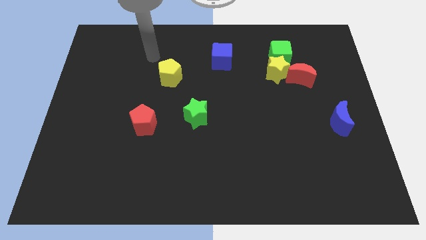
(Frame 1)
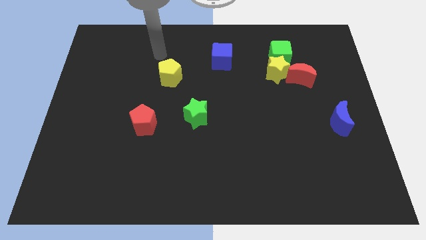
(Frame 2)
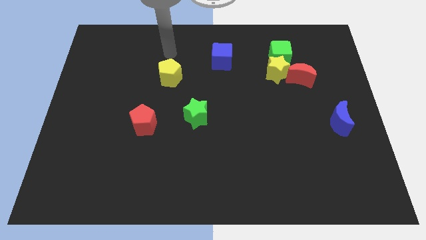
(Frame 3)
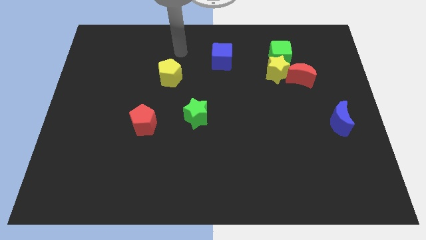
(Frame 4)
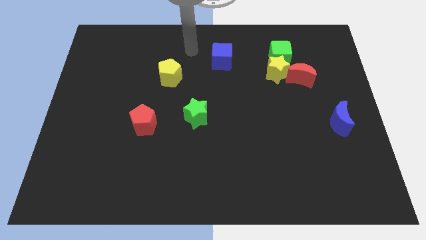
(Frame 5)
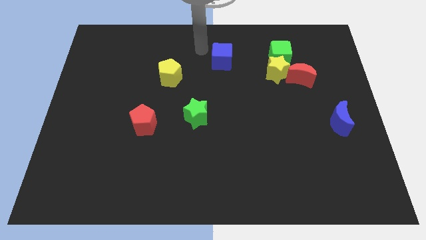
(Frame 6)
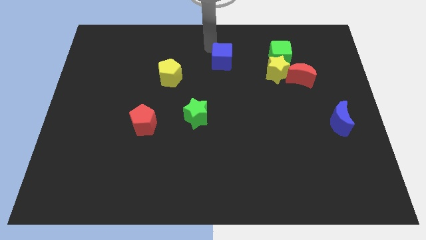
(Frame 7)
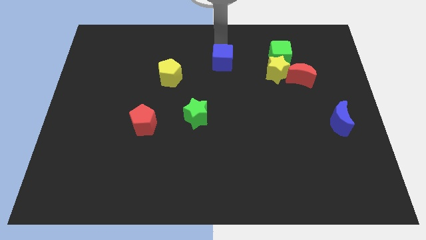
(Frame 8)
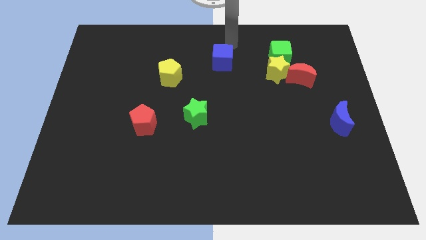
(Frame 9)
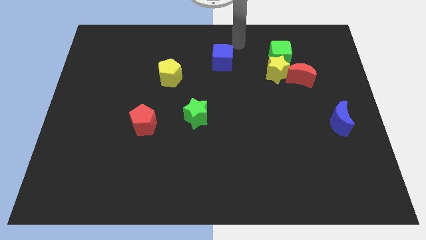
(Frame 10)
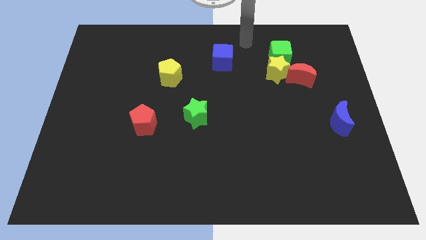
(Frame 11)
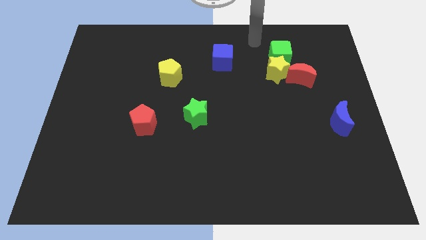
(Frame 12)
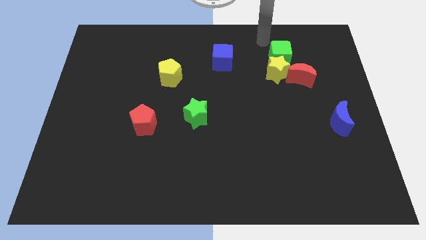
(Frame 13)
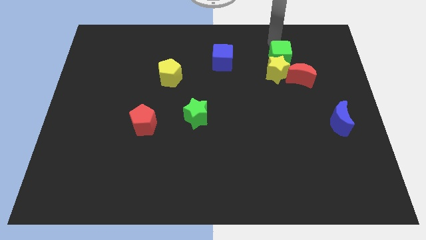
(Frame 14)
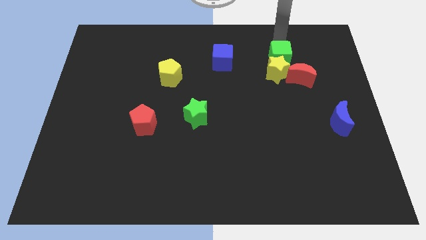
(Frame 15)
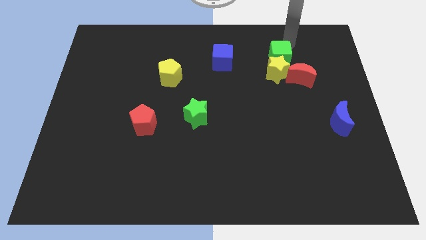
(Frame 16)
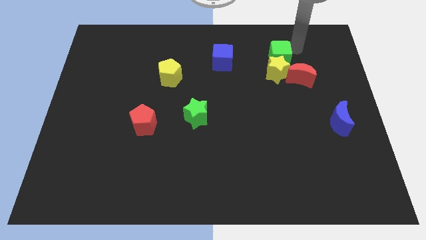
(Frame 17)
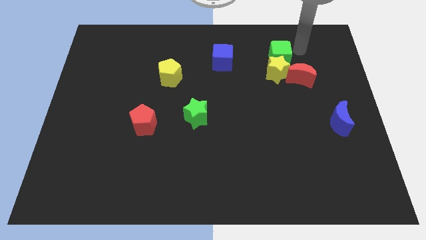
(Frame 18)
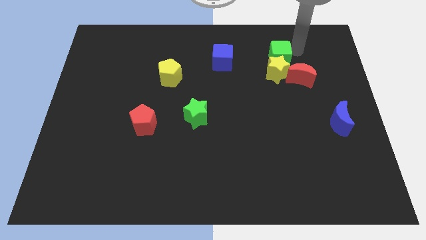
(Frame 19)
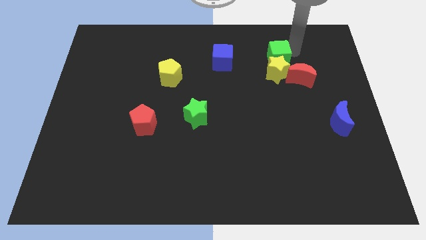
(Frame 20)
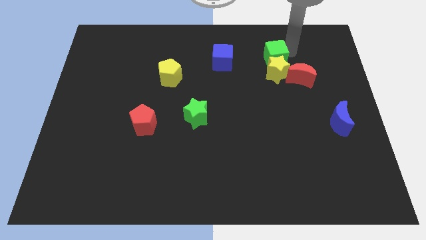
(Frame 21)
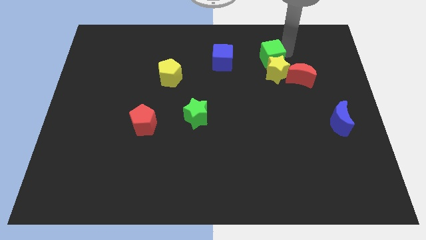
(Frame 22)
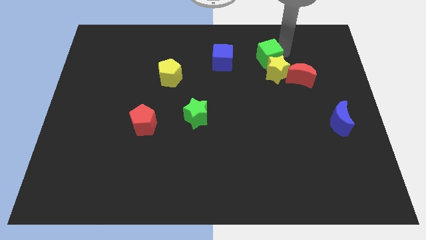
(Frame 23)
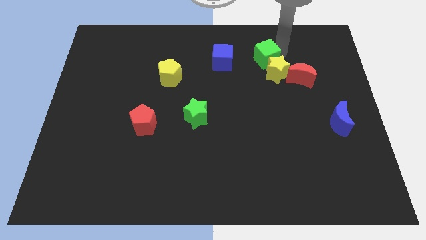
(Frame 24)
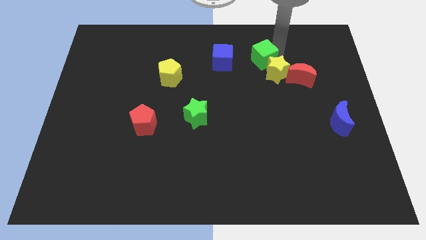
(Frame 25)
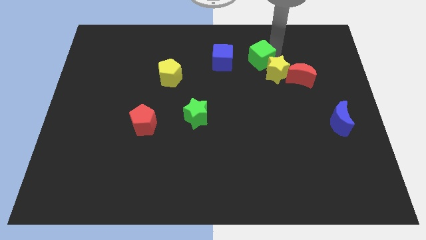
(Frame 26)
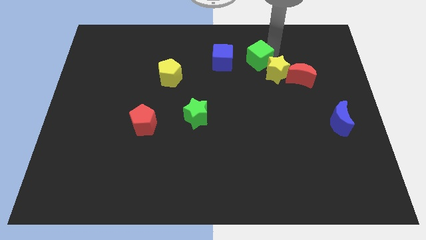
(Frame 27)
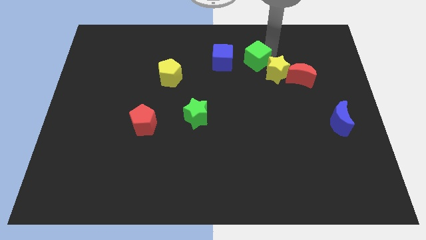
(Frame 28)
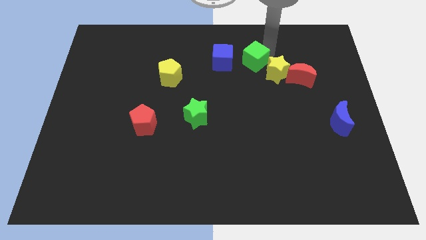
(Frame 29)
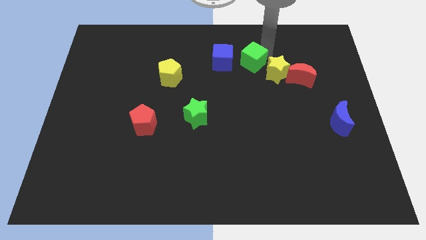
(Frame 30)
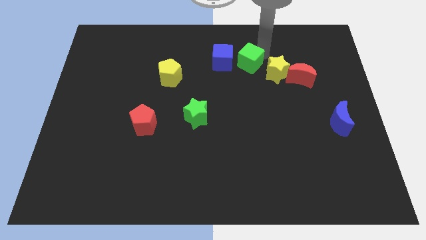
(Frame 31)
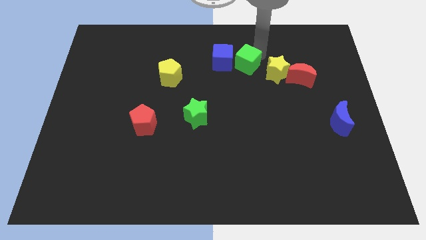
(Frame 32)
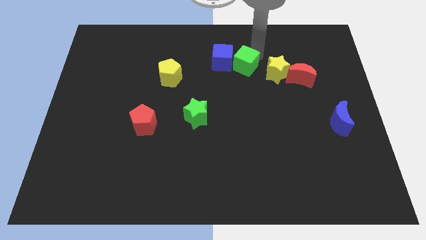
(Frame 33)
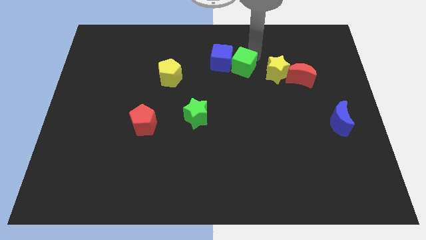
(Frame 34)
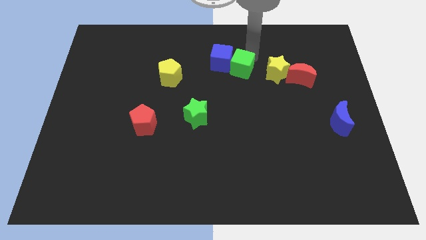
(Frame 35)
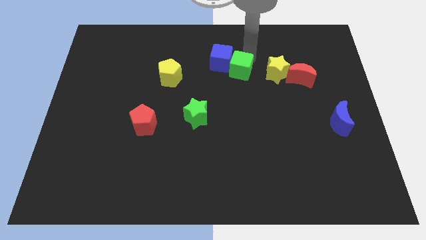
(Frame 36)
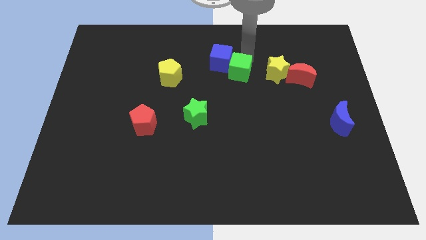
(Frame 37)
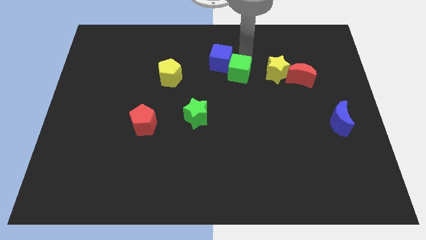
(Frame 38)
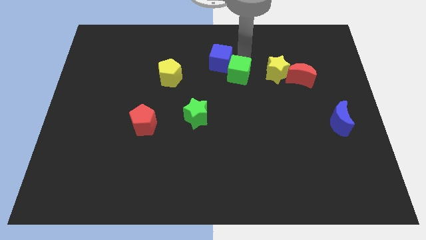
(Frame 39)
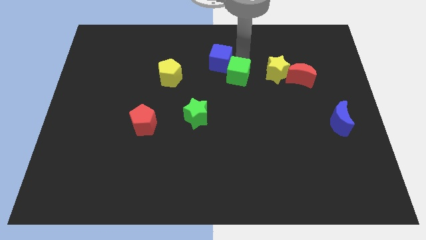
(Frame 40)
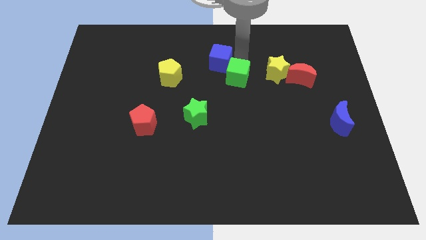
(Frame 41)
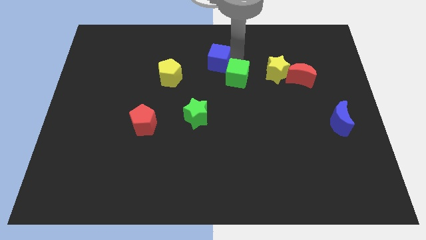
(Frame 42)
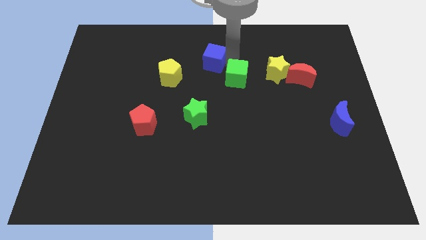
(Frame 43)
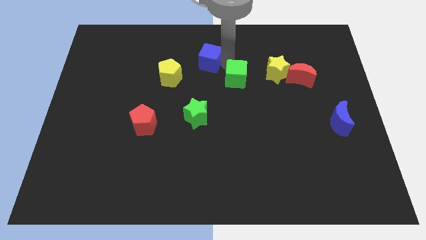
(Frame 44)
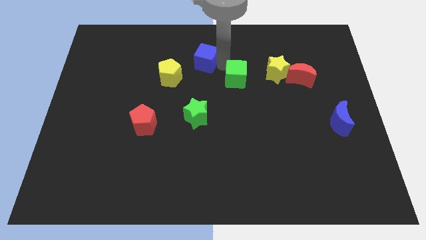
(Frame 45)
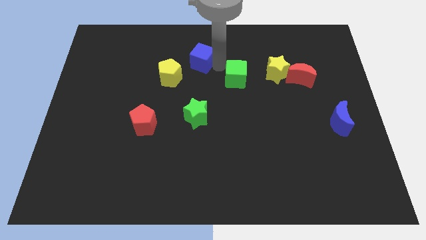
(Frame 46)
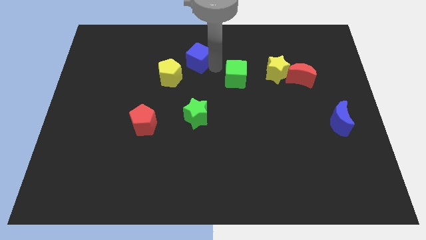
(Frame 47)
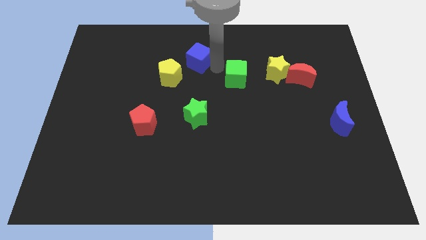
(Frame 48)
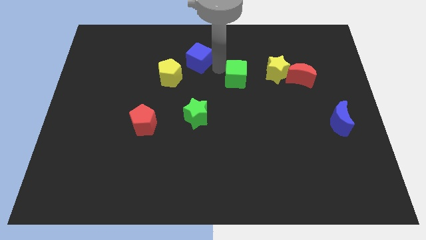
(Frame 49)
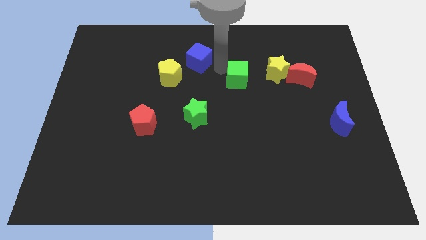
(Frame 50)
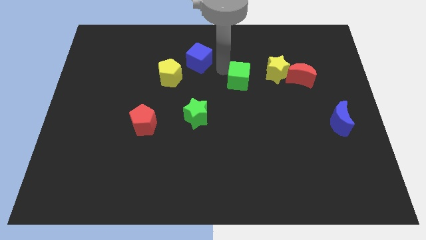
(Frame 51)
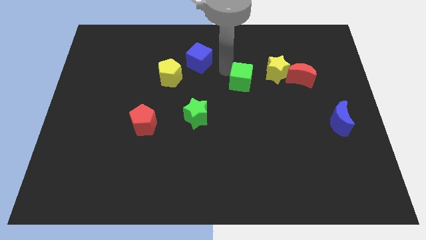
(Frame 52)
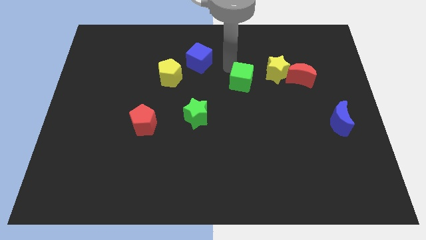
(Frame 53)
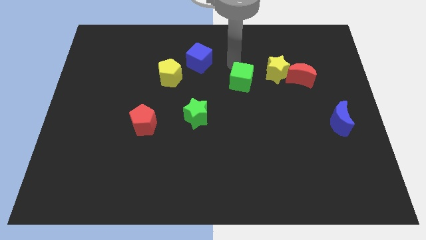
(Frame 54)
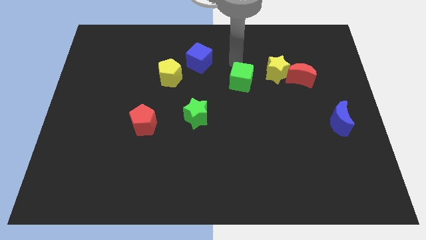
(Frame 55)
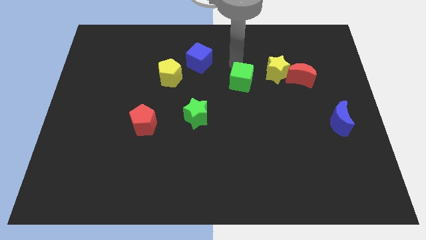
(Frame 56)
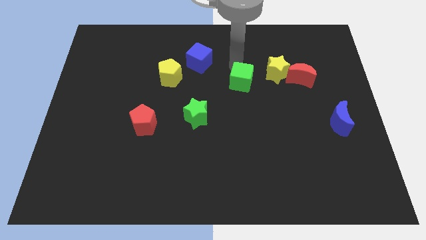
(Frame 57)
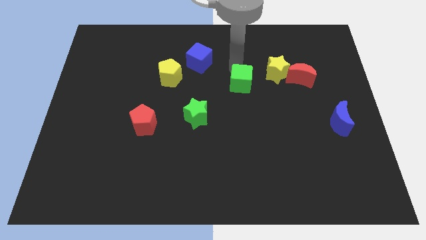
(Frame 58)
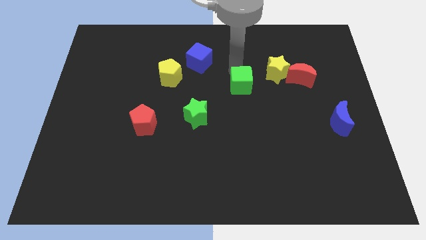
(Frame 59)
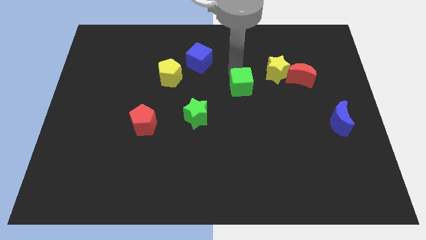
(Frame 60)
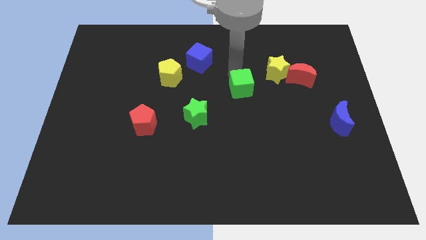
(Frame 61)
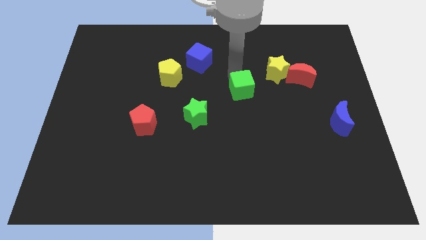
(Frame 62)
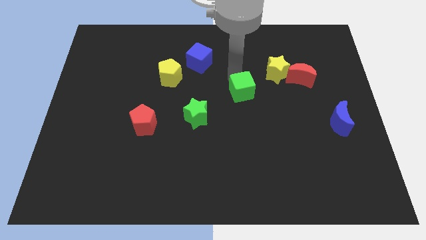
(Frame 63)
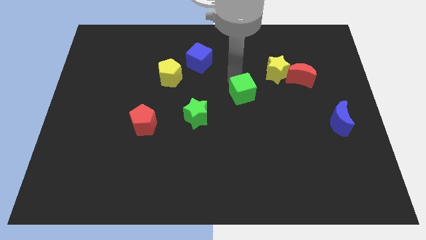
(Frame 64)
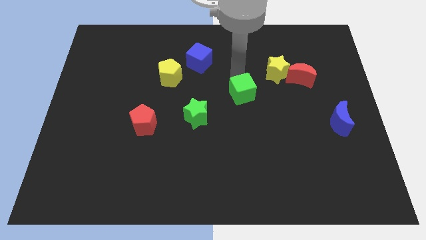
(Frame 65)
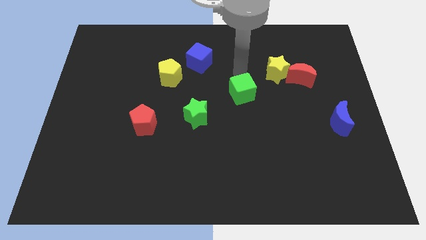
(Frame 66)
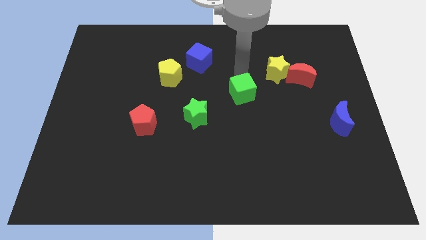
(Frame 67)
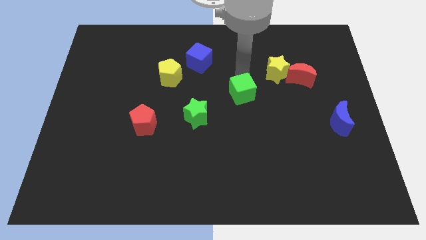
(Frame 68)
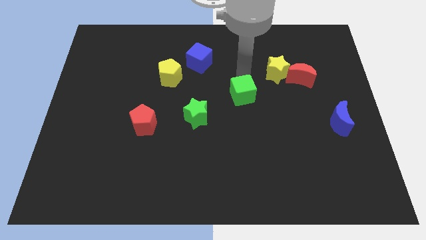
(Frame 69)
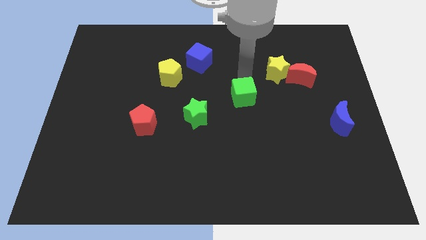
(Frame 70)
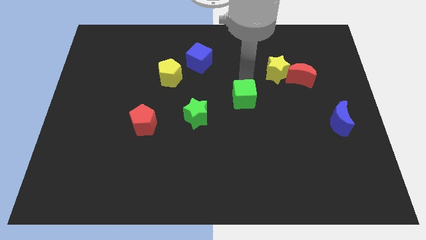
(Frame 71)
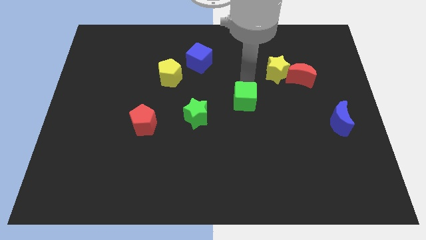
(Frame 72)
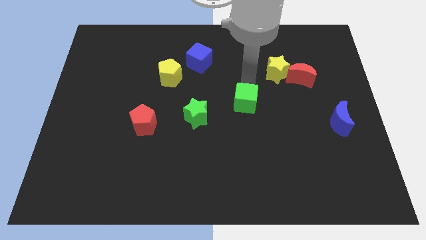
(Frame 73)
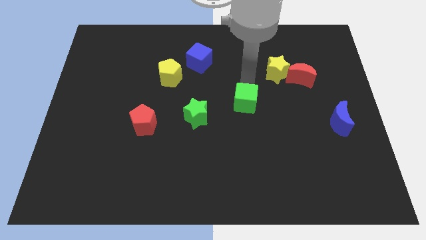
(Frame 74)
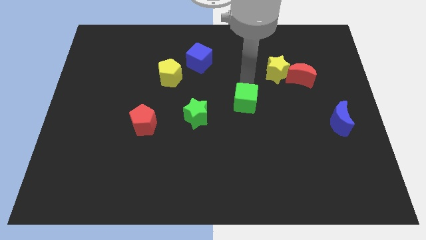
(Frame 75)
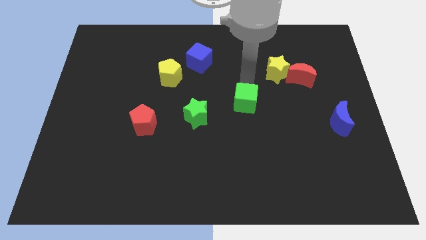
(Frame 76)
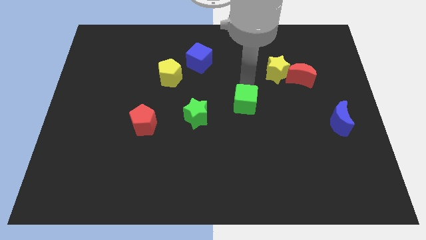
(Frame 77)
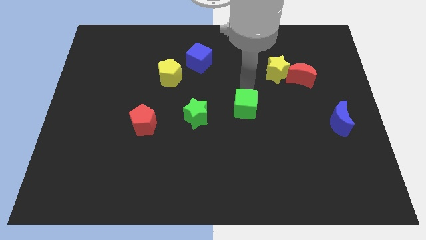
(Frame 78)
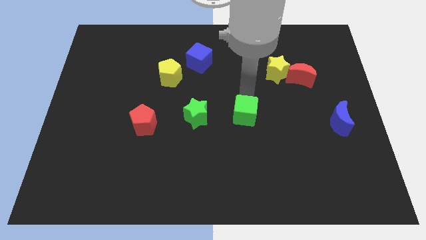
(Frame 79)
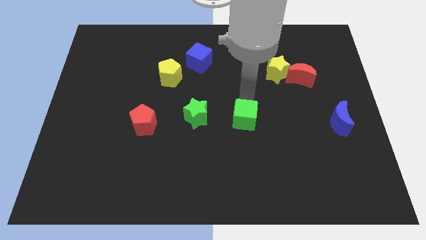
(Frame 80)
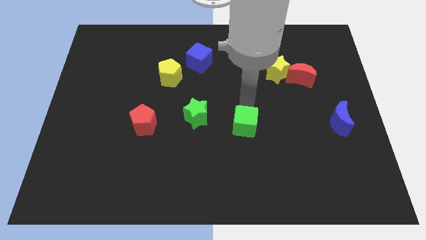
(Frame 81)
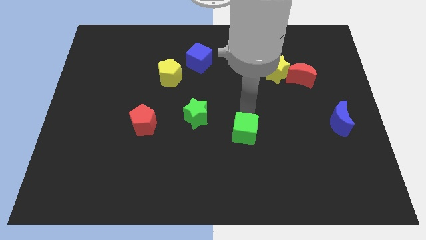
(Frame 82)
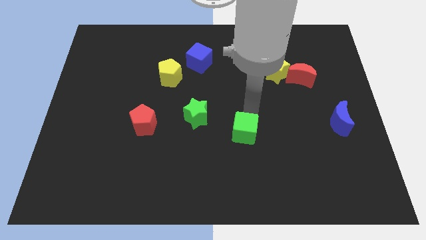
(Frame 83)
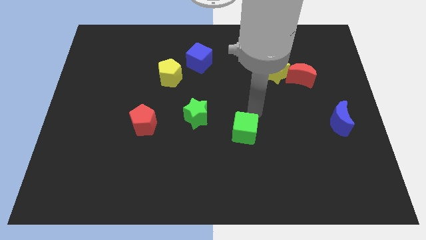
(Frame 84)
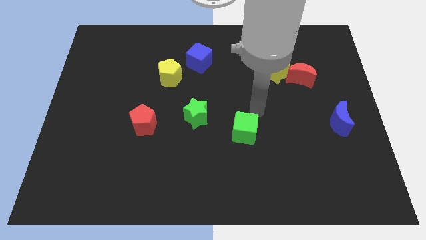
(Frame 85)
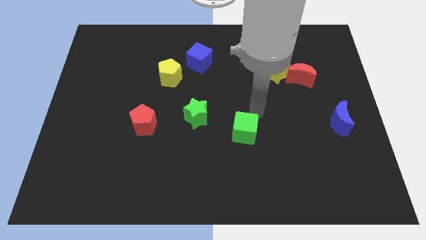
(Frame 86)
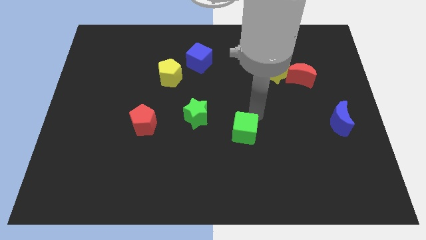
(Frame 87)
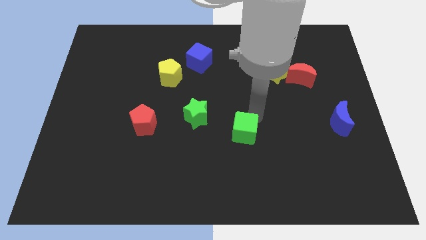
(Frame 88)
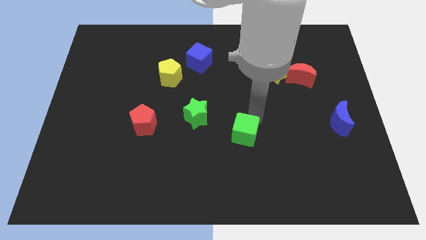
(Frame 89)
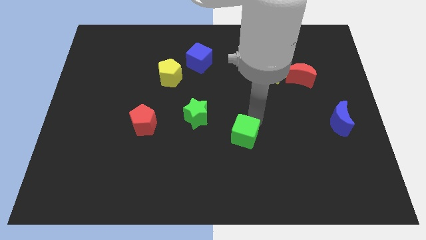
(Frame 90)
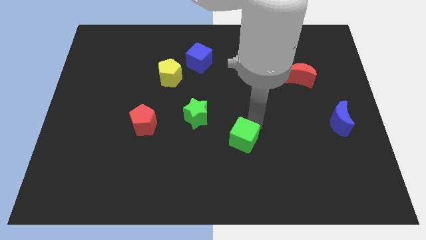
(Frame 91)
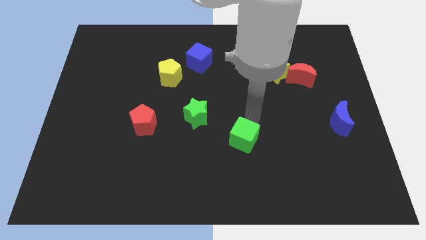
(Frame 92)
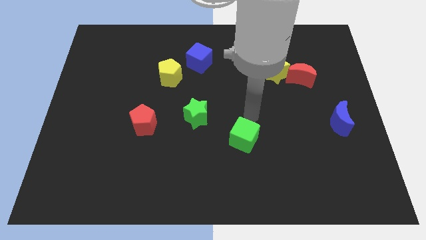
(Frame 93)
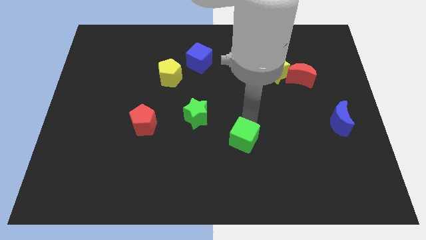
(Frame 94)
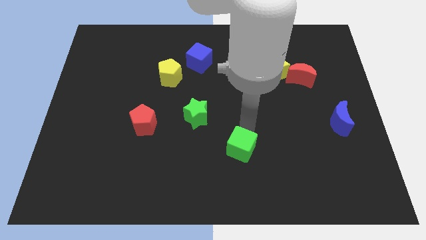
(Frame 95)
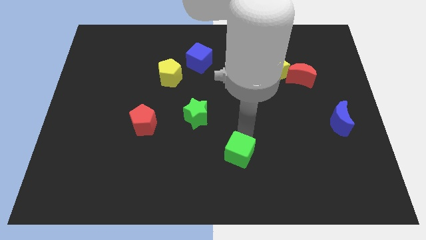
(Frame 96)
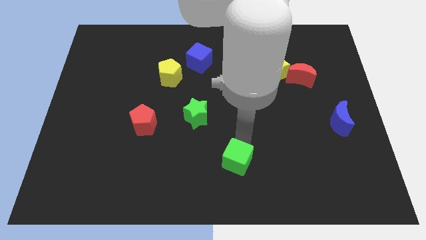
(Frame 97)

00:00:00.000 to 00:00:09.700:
move the green cube to the bottom side
